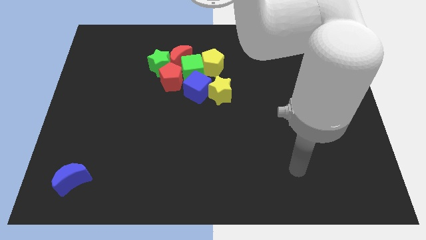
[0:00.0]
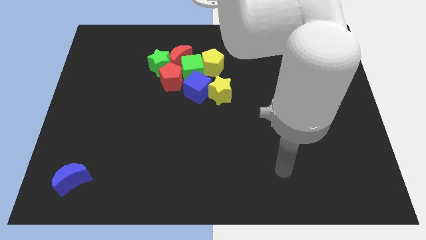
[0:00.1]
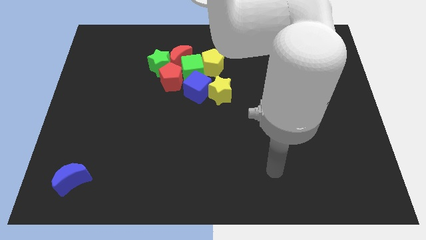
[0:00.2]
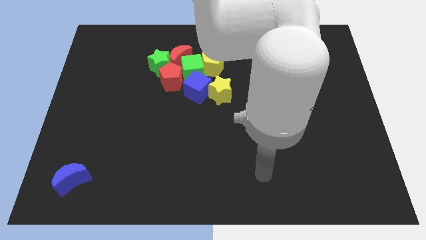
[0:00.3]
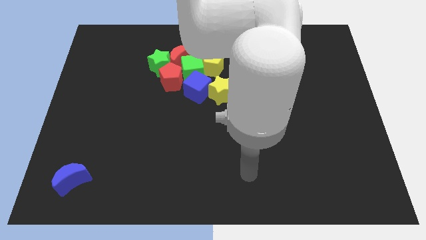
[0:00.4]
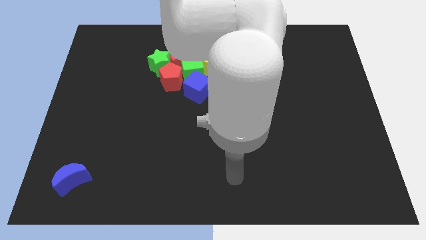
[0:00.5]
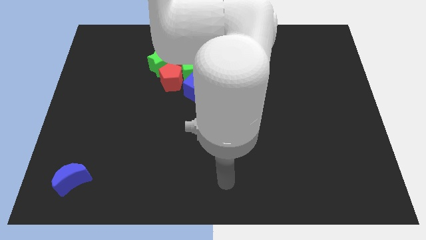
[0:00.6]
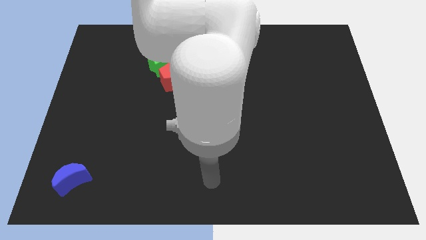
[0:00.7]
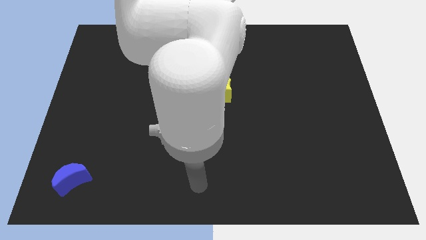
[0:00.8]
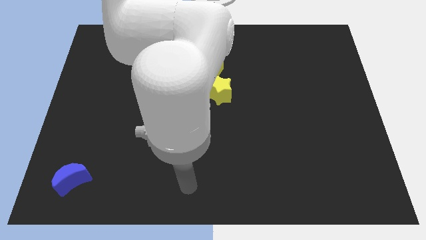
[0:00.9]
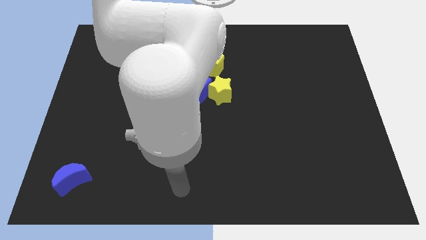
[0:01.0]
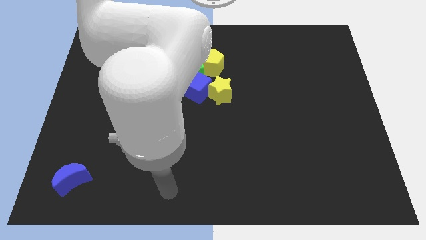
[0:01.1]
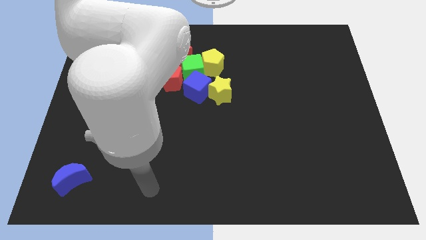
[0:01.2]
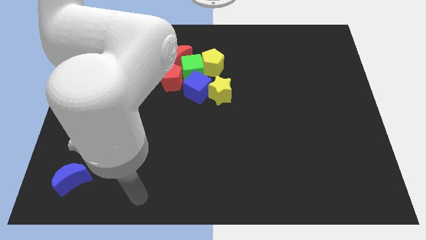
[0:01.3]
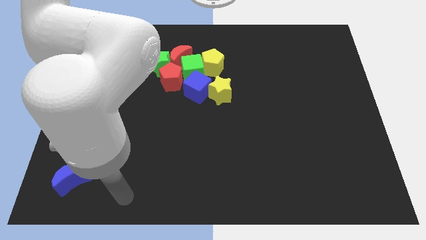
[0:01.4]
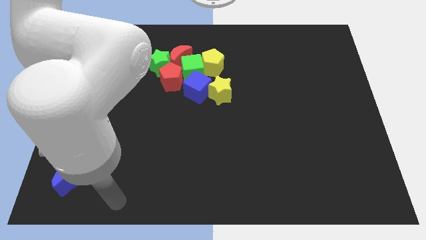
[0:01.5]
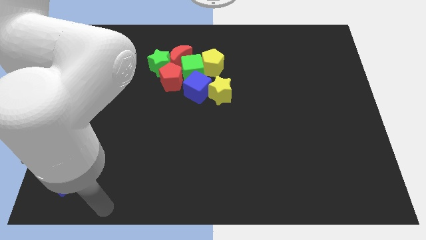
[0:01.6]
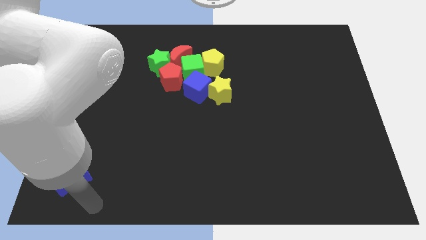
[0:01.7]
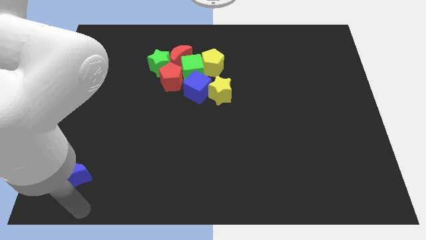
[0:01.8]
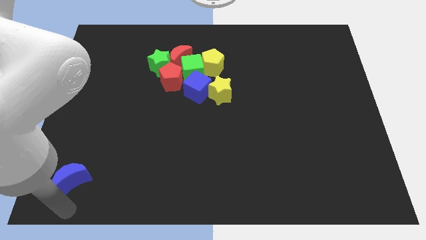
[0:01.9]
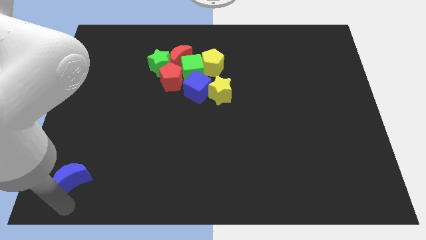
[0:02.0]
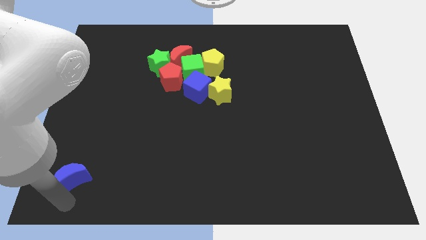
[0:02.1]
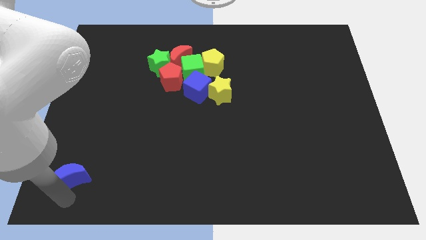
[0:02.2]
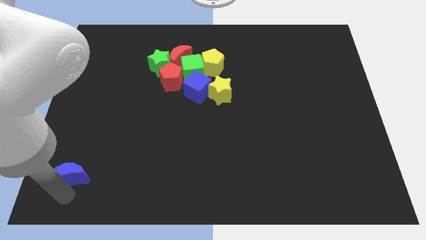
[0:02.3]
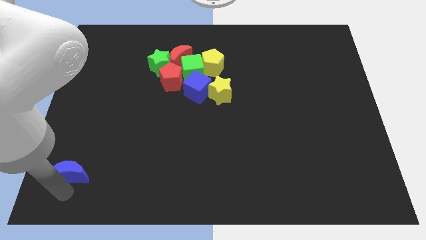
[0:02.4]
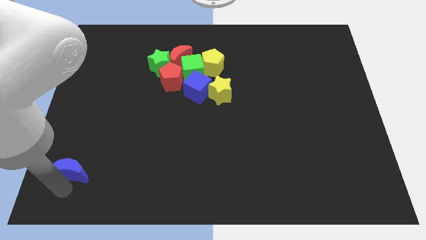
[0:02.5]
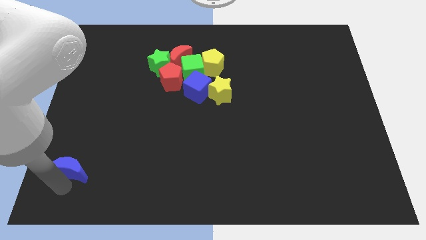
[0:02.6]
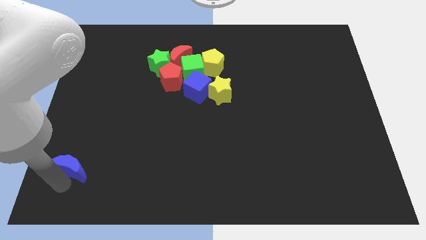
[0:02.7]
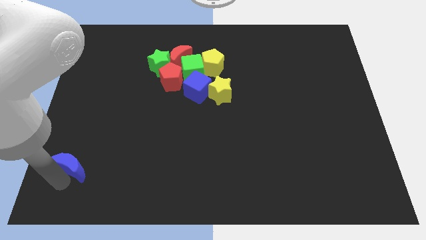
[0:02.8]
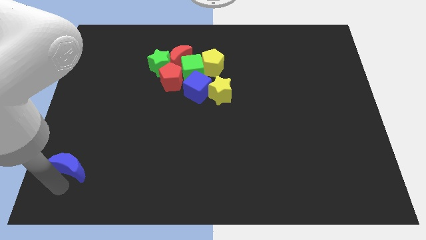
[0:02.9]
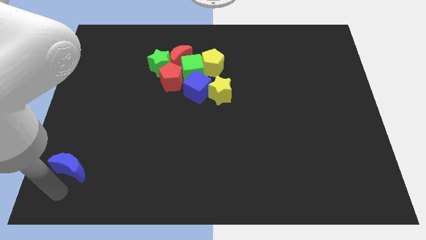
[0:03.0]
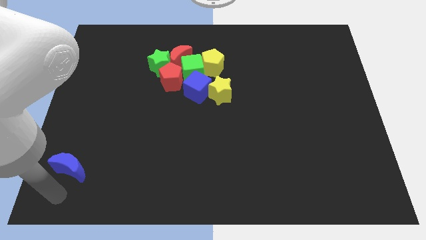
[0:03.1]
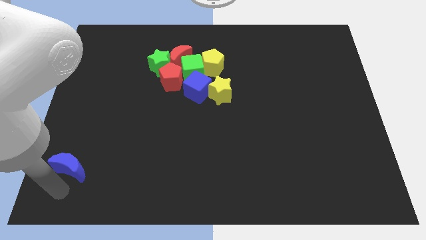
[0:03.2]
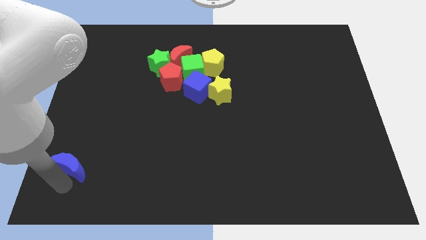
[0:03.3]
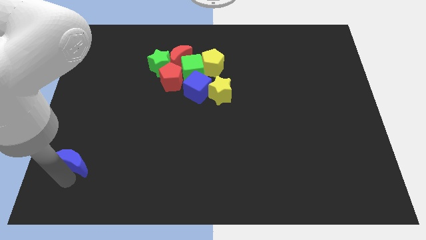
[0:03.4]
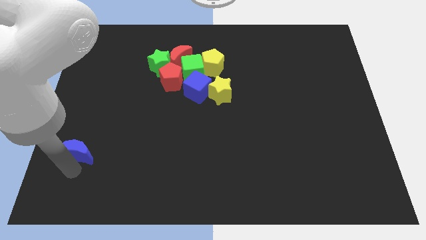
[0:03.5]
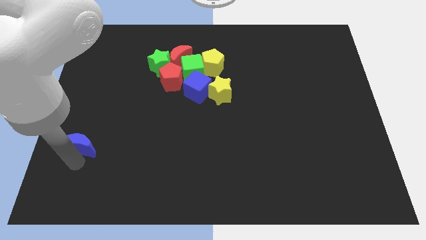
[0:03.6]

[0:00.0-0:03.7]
slide the blue moon up slightly

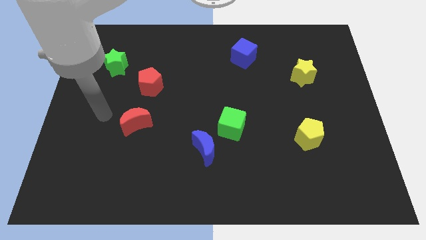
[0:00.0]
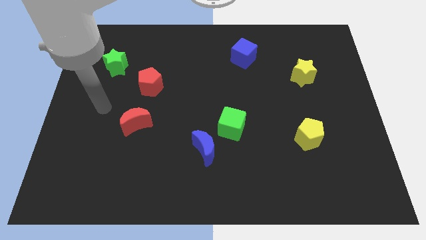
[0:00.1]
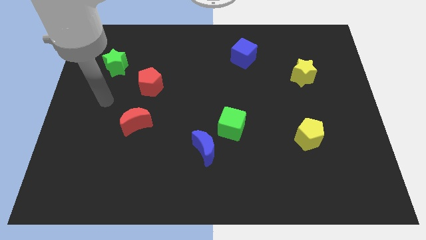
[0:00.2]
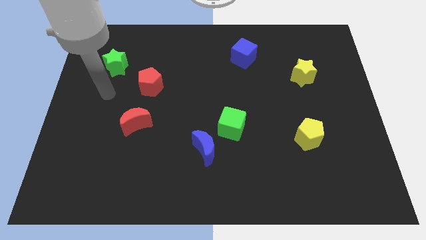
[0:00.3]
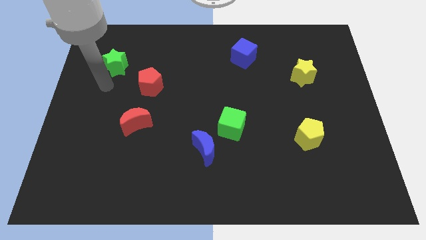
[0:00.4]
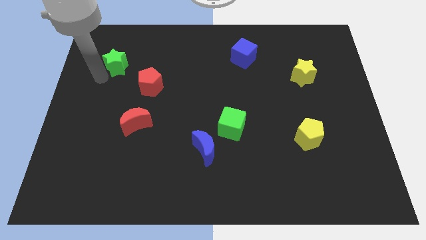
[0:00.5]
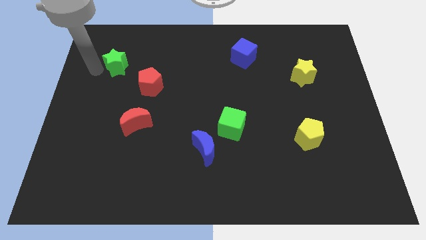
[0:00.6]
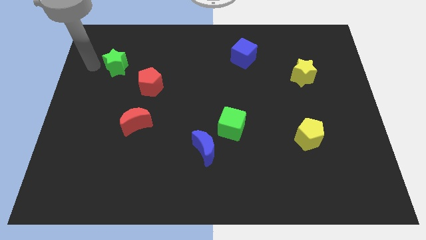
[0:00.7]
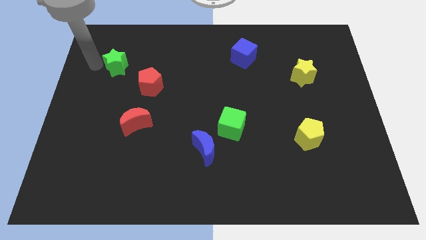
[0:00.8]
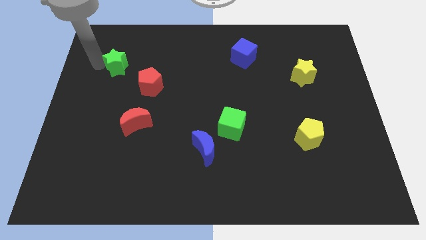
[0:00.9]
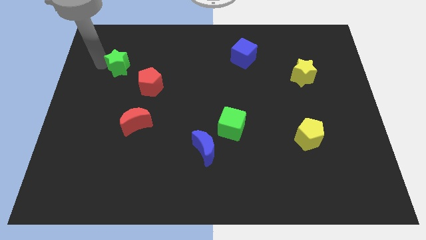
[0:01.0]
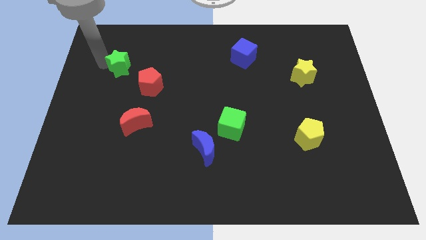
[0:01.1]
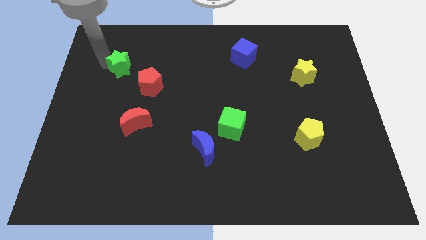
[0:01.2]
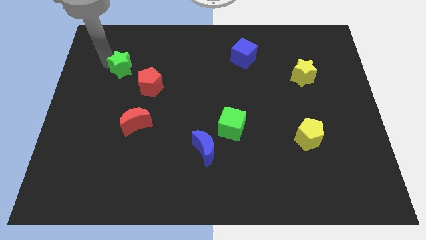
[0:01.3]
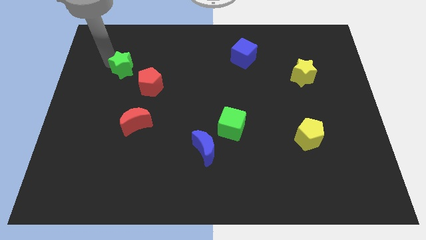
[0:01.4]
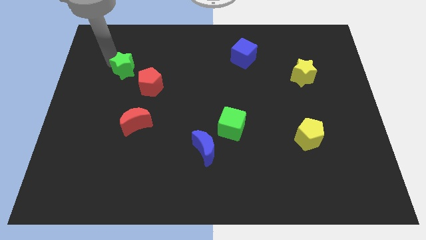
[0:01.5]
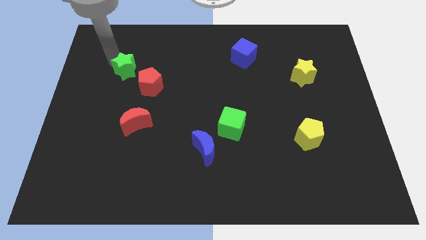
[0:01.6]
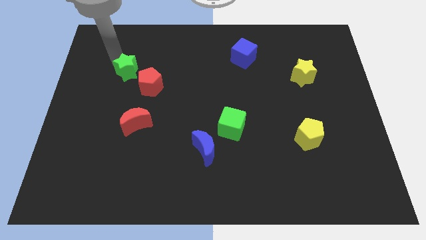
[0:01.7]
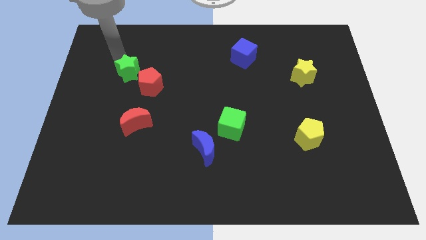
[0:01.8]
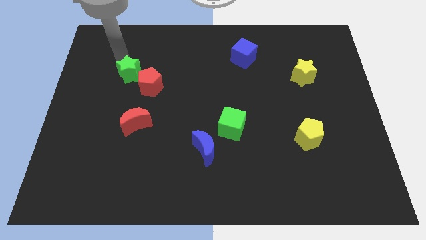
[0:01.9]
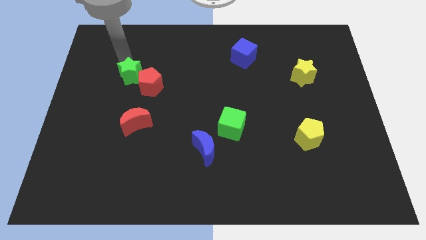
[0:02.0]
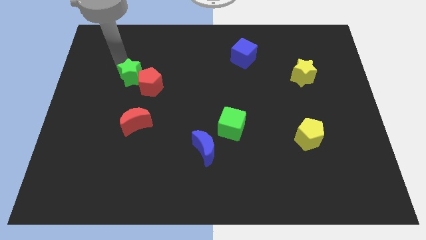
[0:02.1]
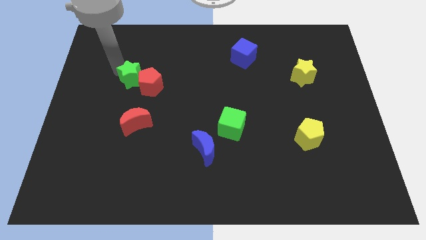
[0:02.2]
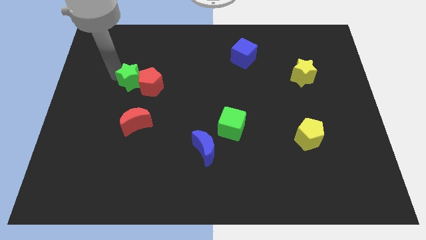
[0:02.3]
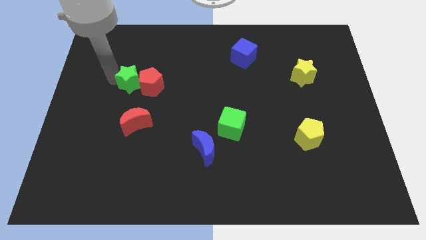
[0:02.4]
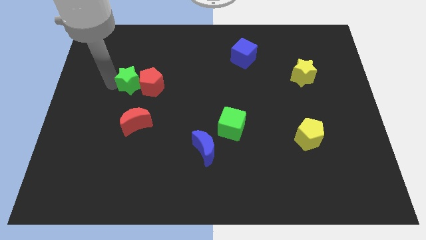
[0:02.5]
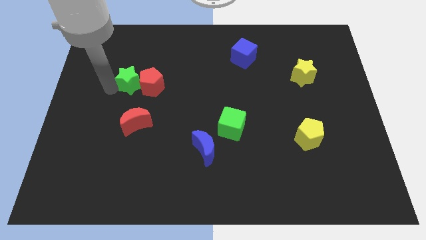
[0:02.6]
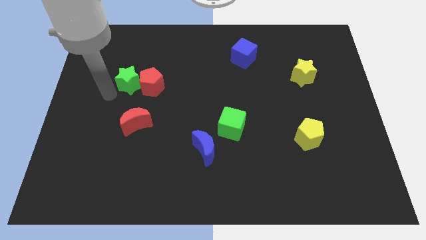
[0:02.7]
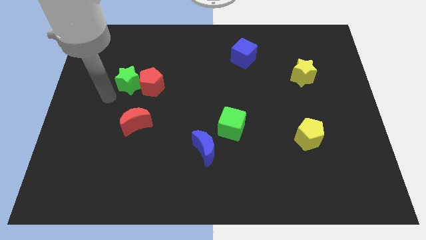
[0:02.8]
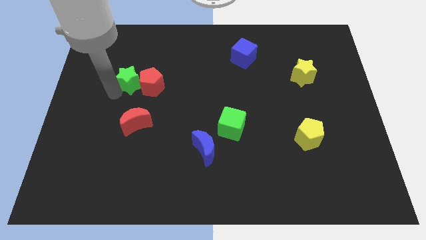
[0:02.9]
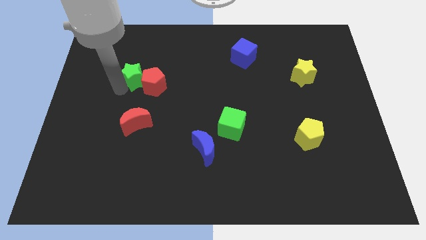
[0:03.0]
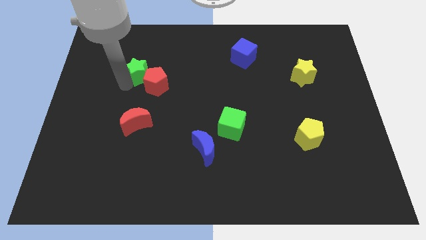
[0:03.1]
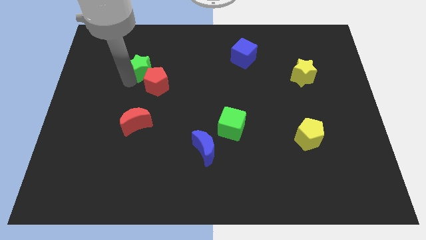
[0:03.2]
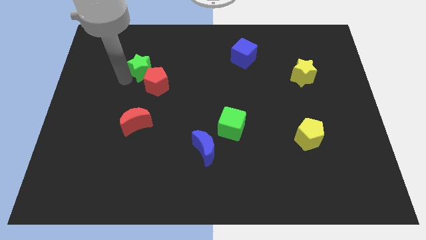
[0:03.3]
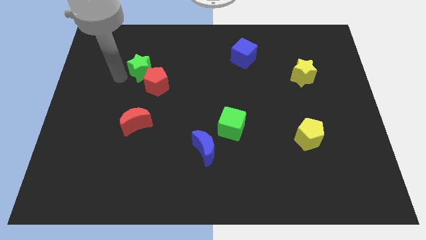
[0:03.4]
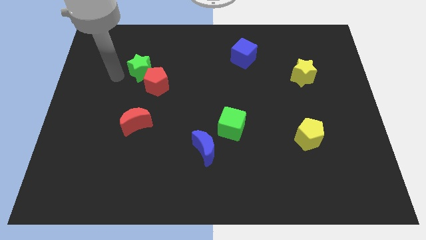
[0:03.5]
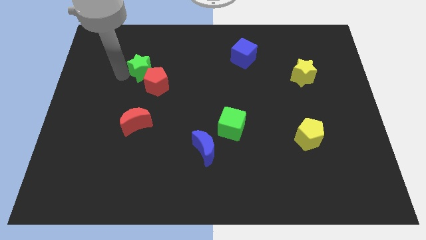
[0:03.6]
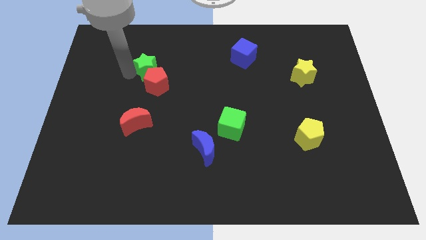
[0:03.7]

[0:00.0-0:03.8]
slide the green star a little bit to the right

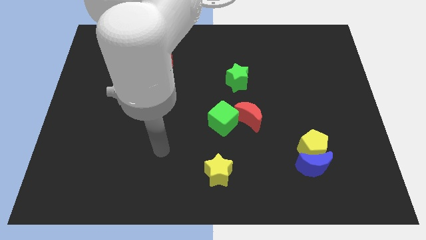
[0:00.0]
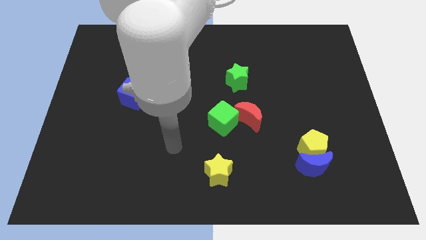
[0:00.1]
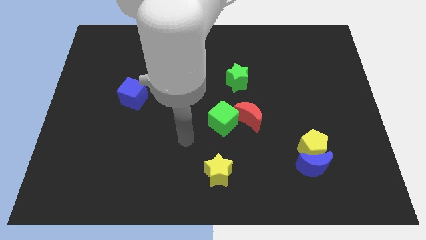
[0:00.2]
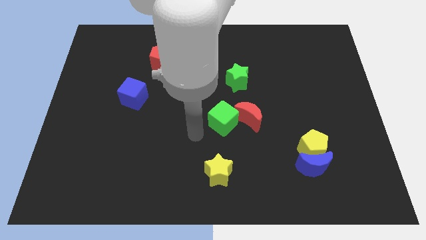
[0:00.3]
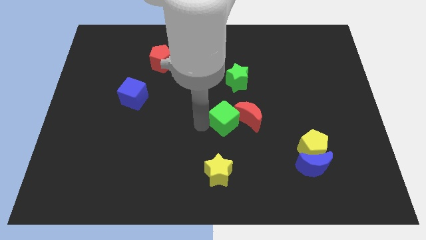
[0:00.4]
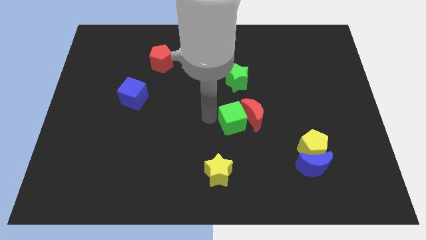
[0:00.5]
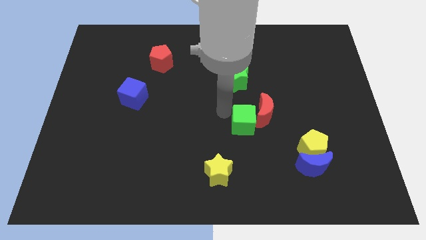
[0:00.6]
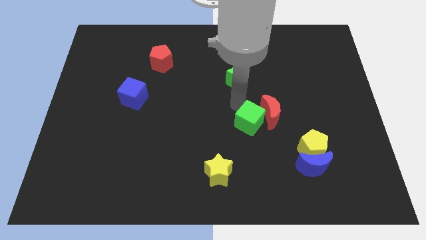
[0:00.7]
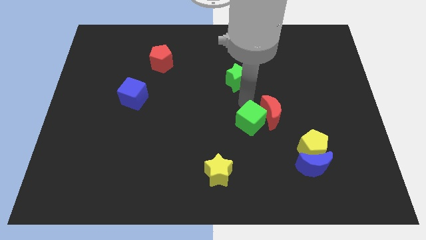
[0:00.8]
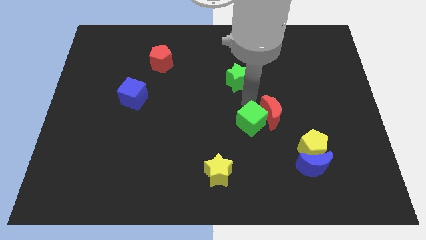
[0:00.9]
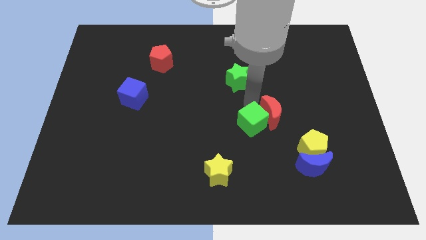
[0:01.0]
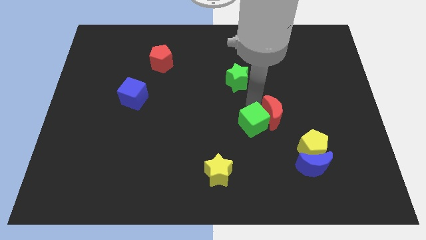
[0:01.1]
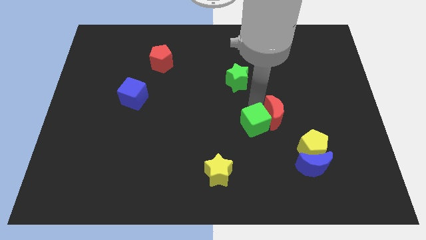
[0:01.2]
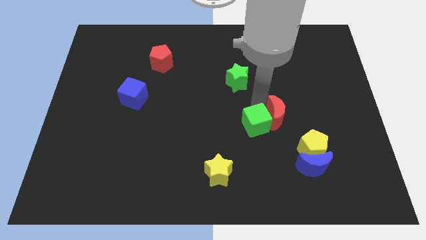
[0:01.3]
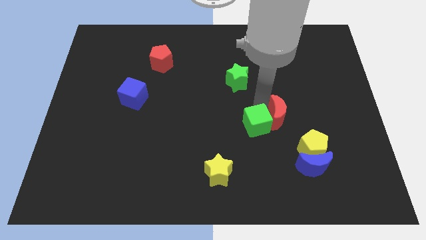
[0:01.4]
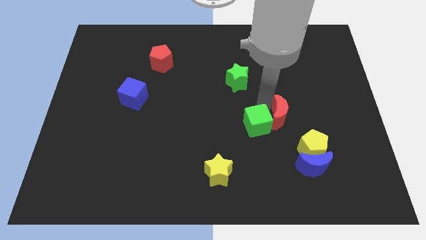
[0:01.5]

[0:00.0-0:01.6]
slightly slide the red moon right
